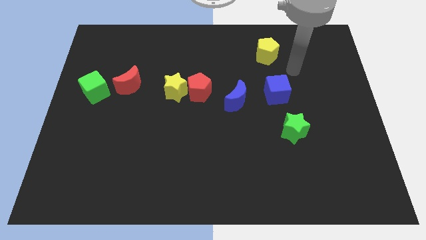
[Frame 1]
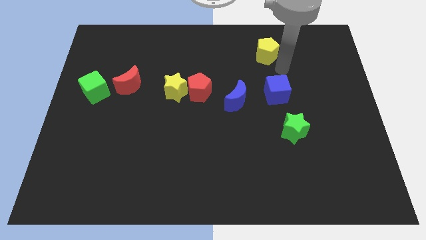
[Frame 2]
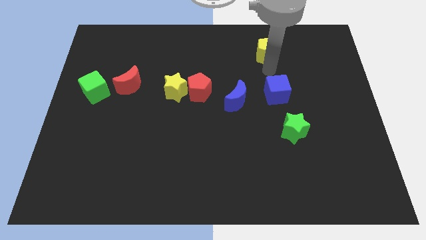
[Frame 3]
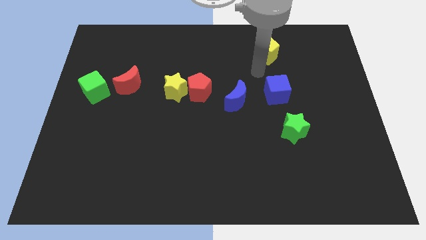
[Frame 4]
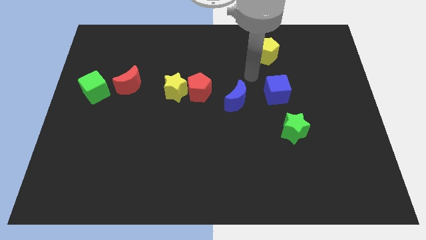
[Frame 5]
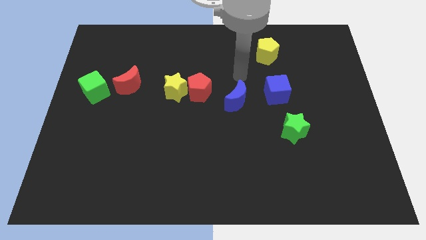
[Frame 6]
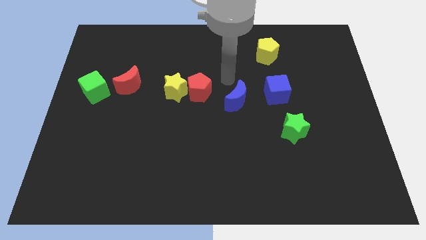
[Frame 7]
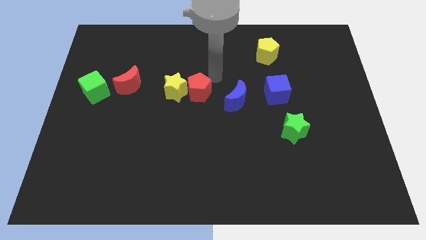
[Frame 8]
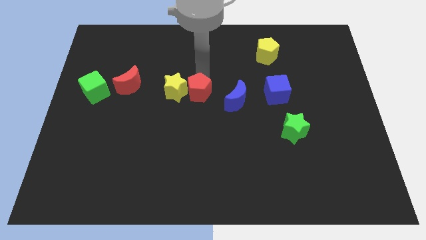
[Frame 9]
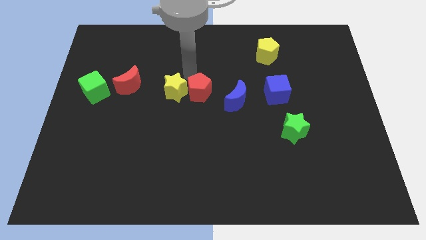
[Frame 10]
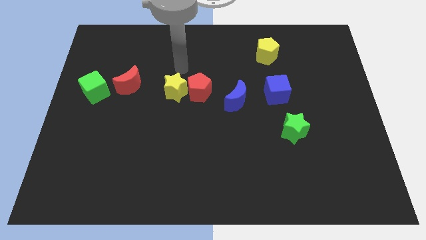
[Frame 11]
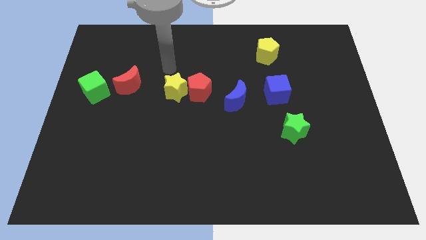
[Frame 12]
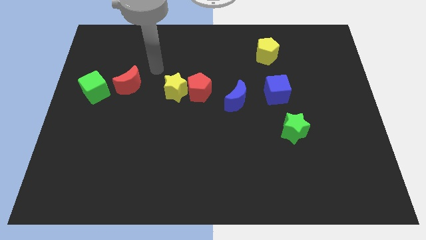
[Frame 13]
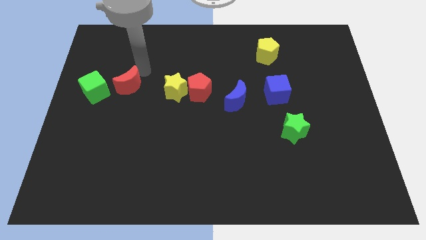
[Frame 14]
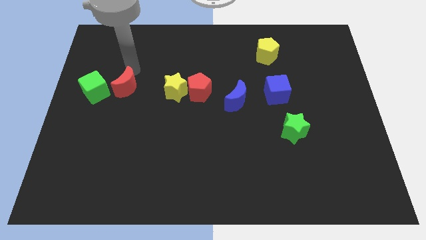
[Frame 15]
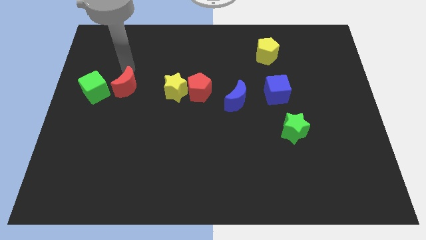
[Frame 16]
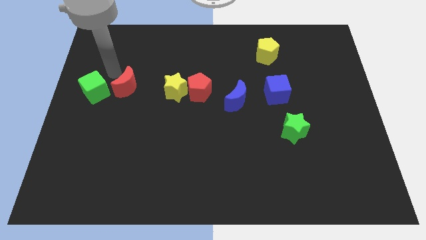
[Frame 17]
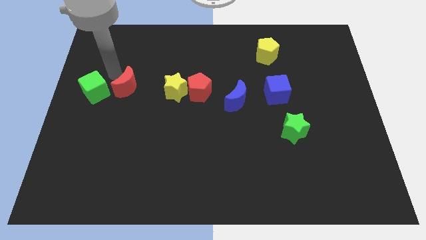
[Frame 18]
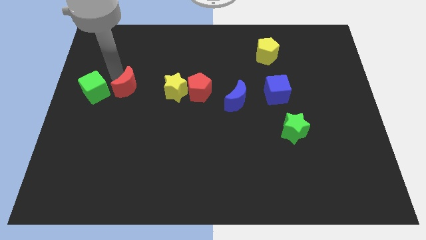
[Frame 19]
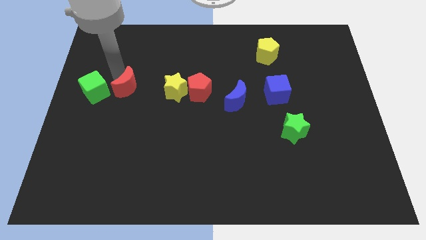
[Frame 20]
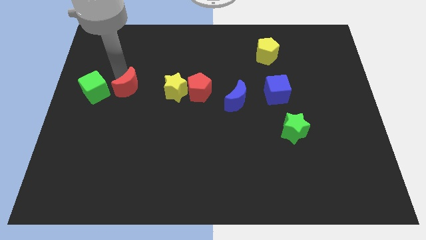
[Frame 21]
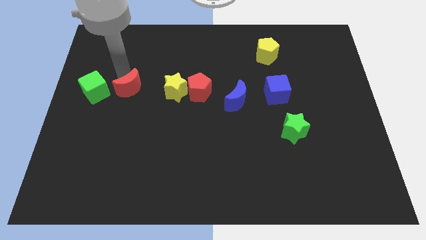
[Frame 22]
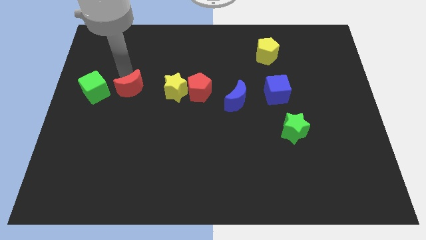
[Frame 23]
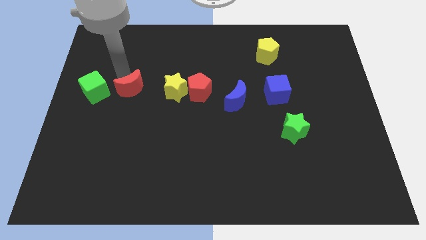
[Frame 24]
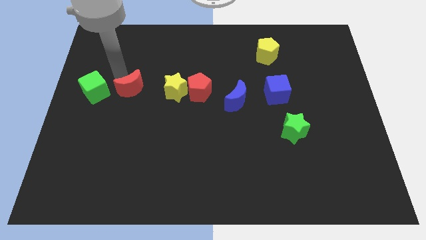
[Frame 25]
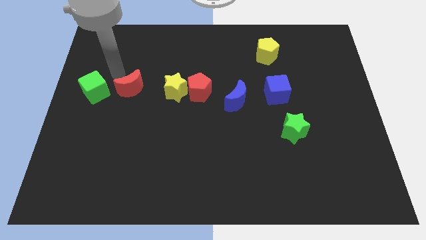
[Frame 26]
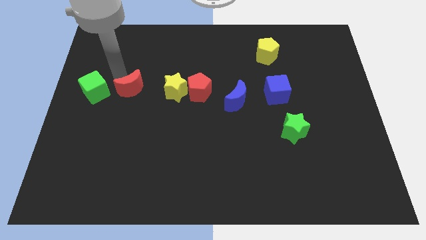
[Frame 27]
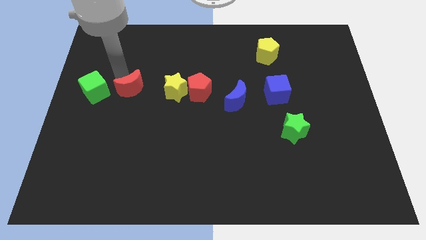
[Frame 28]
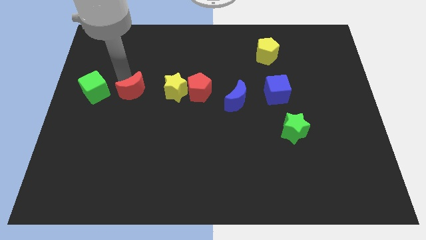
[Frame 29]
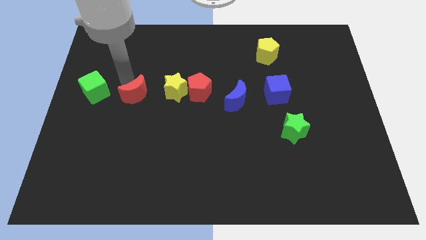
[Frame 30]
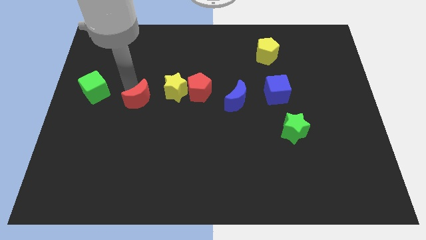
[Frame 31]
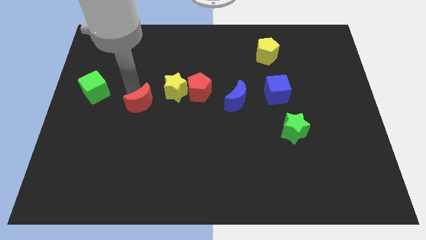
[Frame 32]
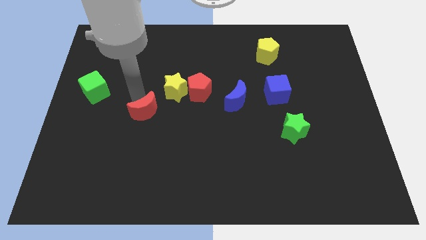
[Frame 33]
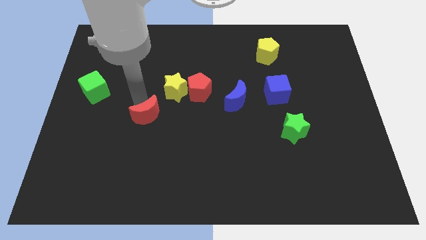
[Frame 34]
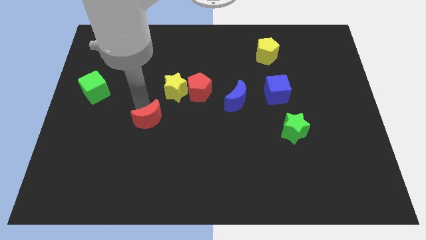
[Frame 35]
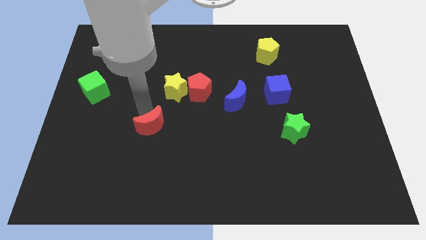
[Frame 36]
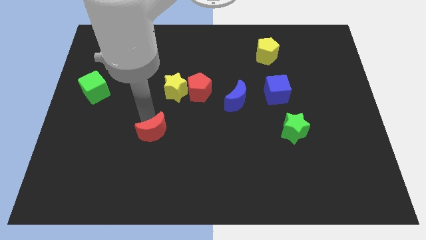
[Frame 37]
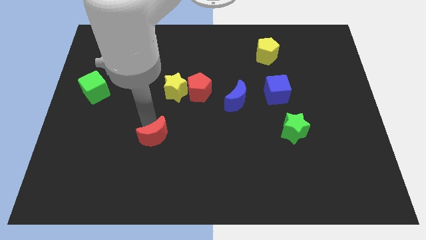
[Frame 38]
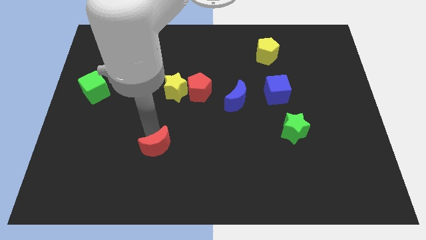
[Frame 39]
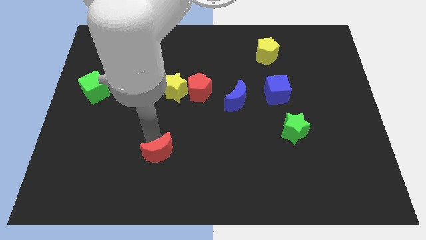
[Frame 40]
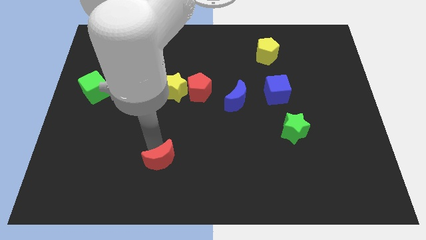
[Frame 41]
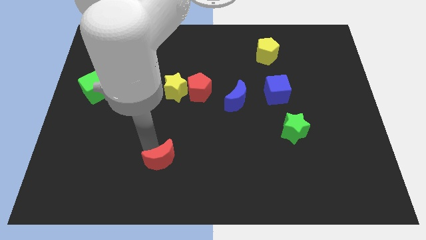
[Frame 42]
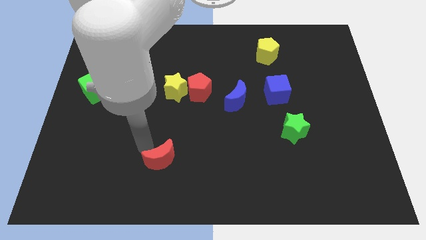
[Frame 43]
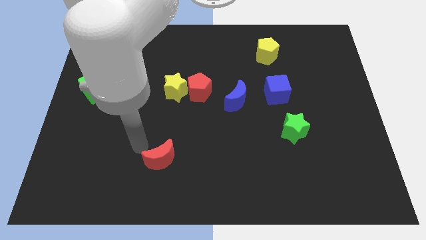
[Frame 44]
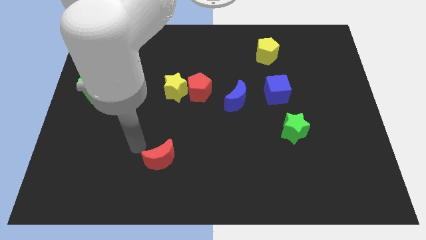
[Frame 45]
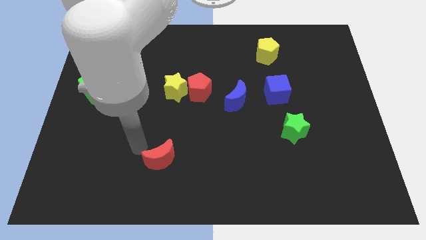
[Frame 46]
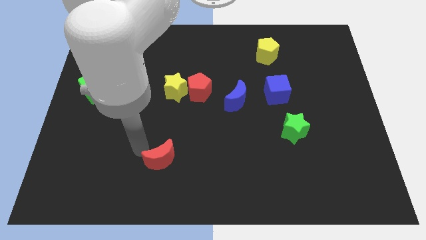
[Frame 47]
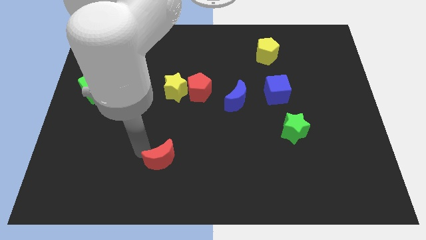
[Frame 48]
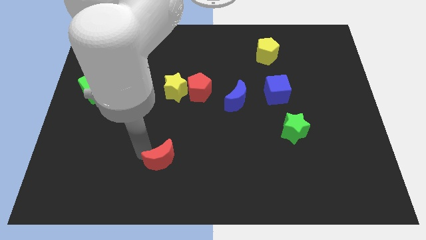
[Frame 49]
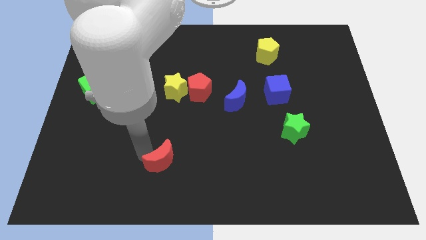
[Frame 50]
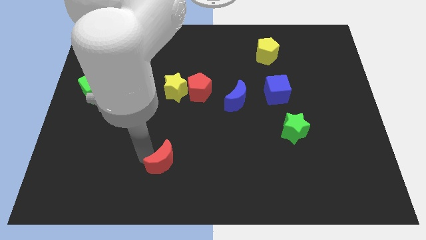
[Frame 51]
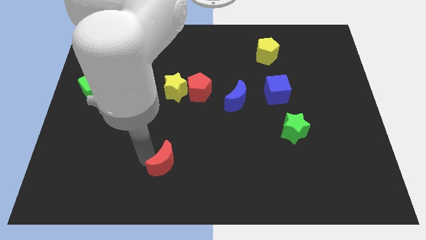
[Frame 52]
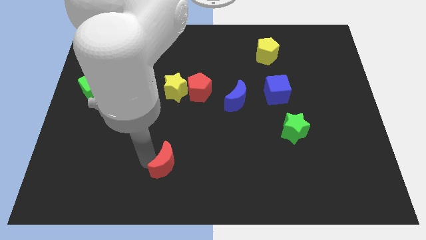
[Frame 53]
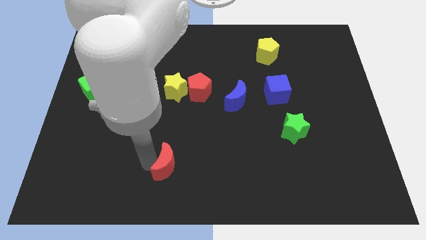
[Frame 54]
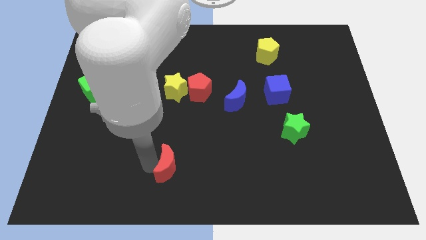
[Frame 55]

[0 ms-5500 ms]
move the red moon to the bottom

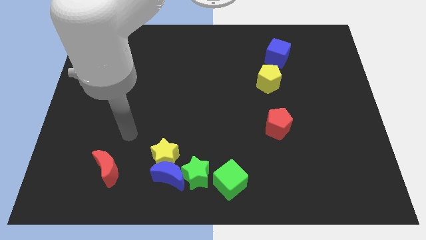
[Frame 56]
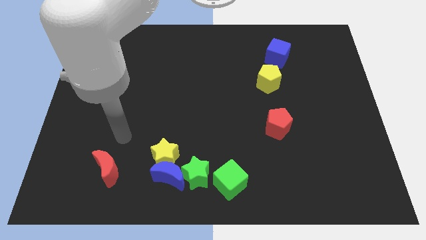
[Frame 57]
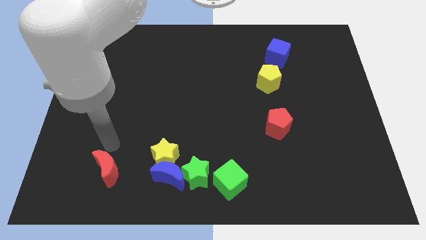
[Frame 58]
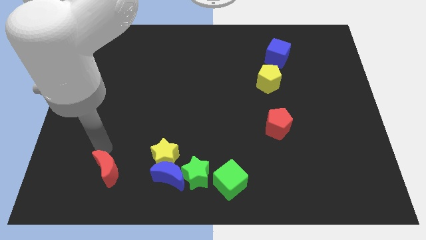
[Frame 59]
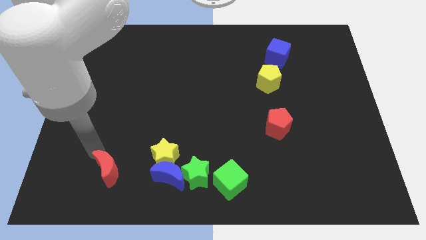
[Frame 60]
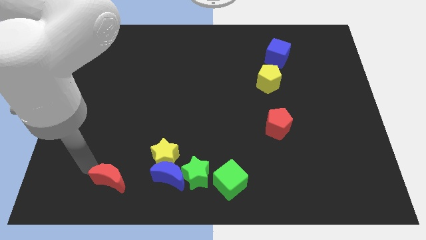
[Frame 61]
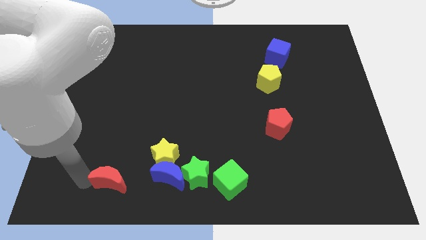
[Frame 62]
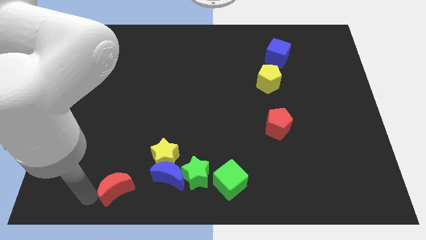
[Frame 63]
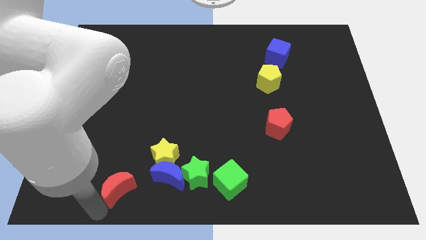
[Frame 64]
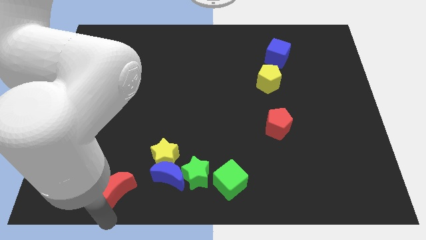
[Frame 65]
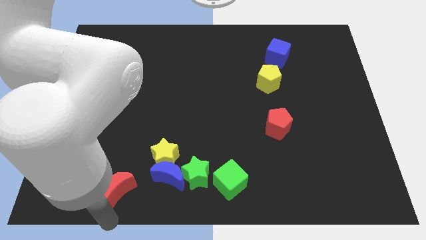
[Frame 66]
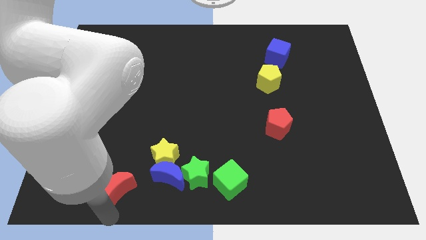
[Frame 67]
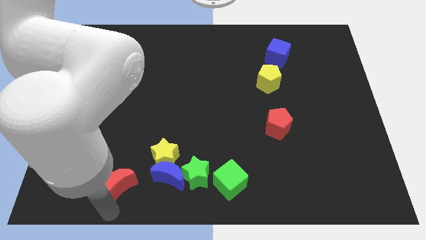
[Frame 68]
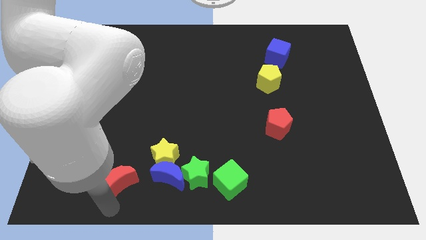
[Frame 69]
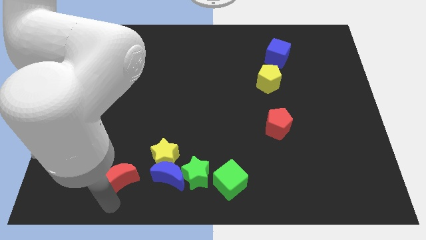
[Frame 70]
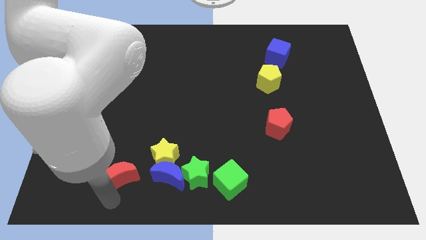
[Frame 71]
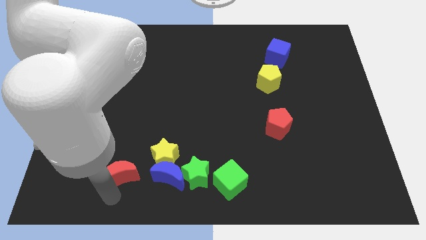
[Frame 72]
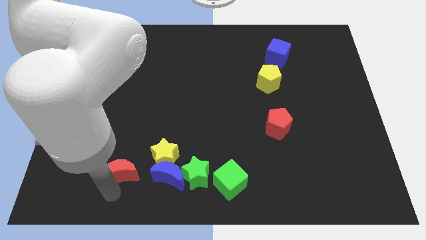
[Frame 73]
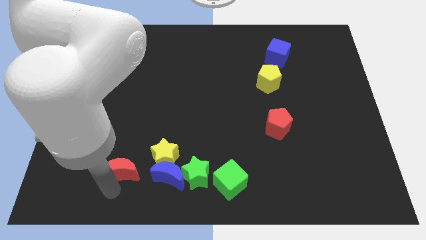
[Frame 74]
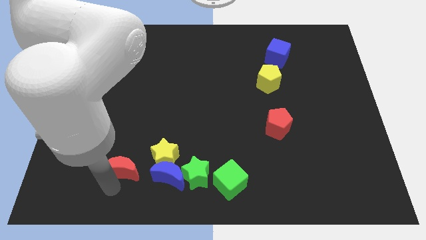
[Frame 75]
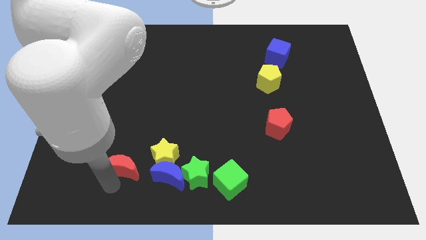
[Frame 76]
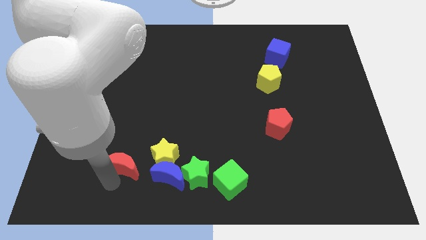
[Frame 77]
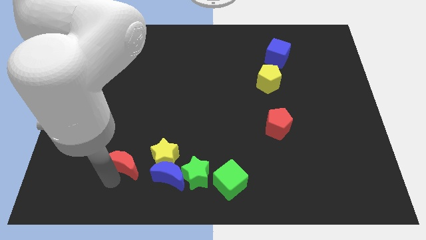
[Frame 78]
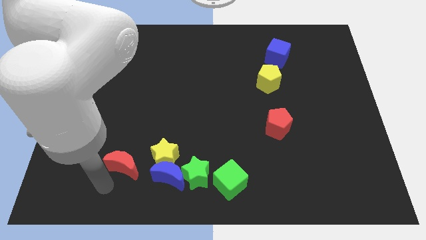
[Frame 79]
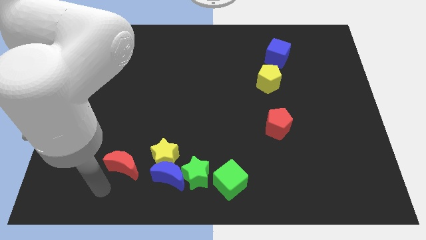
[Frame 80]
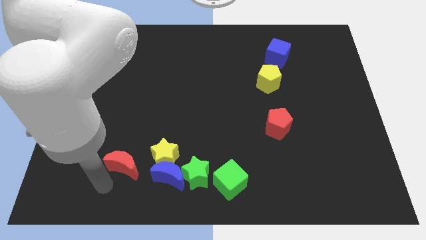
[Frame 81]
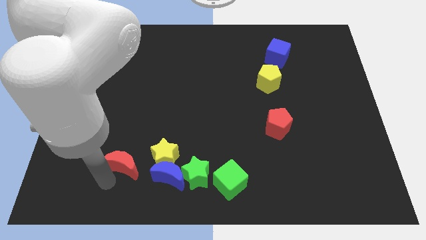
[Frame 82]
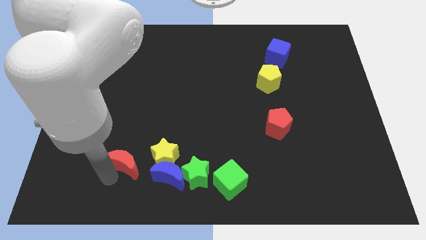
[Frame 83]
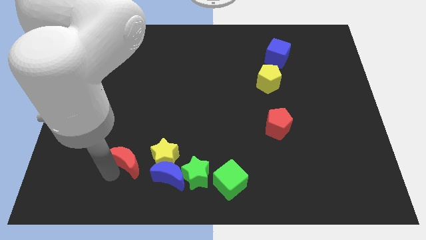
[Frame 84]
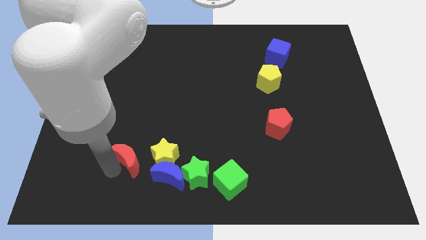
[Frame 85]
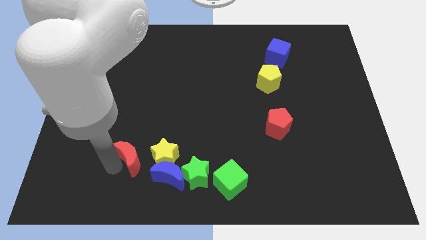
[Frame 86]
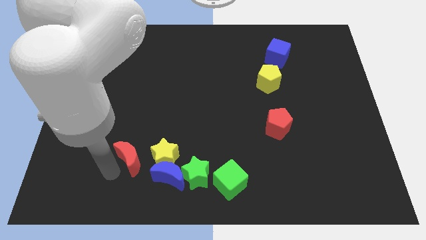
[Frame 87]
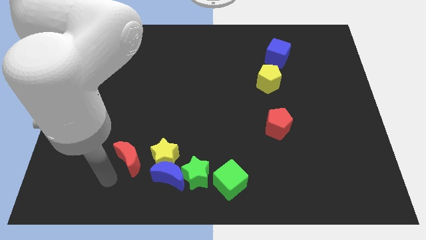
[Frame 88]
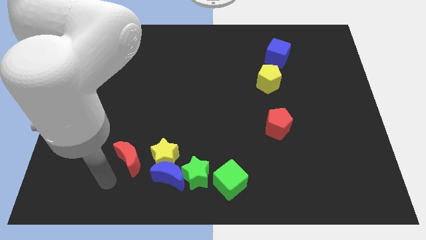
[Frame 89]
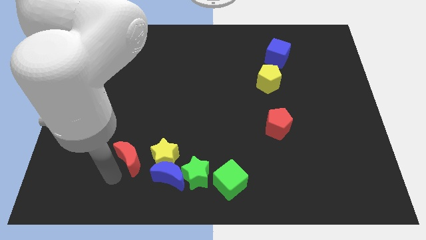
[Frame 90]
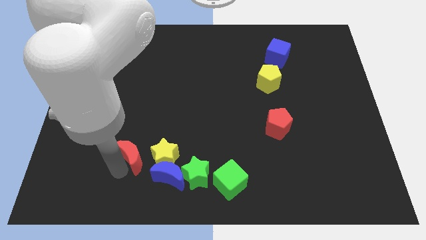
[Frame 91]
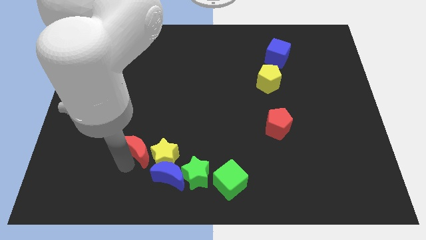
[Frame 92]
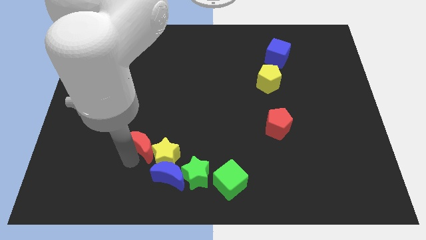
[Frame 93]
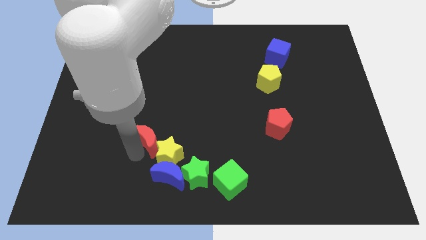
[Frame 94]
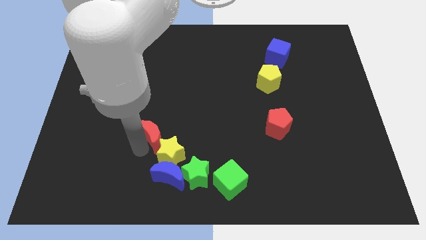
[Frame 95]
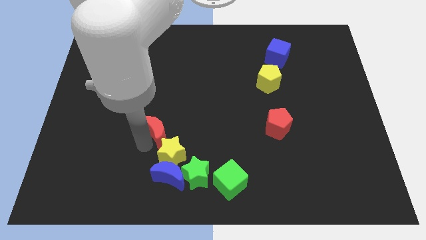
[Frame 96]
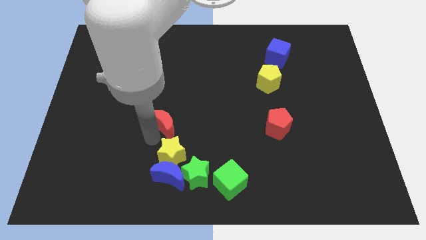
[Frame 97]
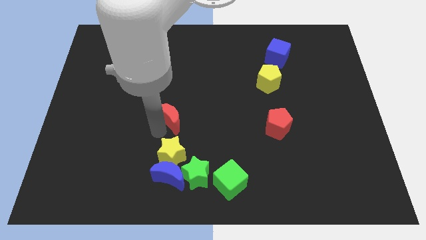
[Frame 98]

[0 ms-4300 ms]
slide the red moon to the middle of the board
